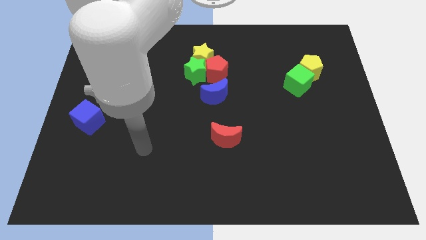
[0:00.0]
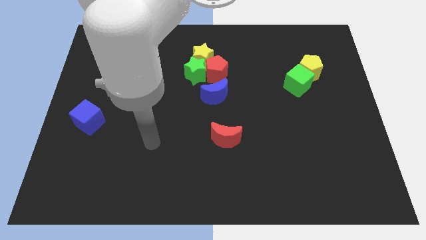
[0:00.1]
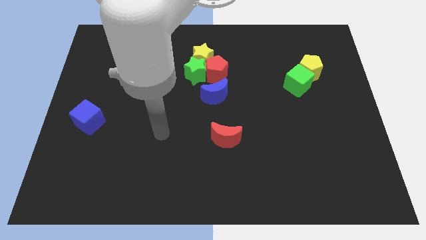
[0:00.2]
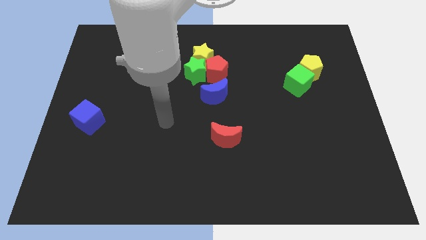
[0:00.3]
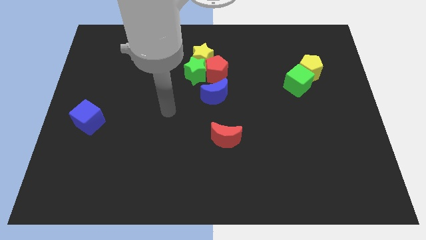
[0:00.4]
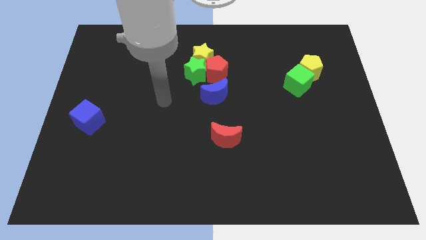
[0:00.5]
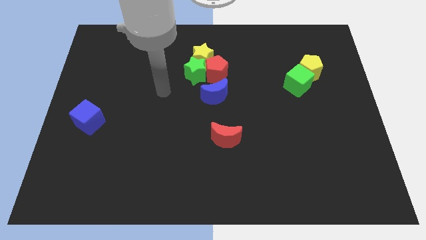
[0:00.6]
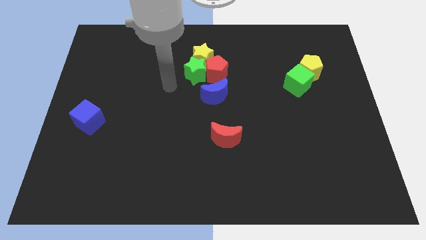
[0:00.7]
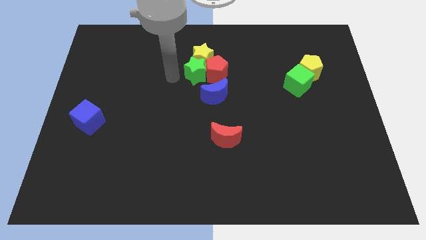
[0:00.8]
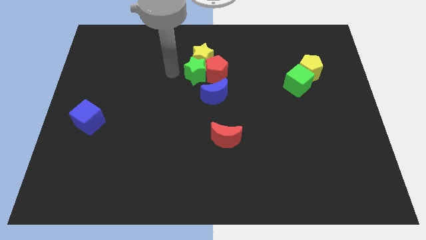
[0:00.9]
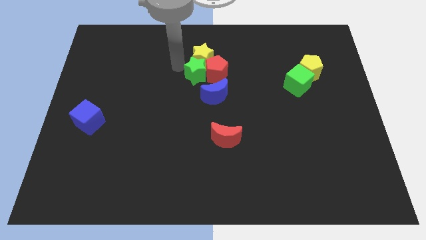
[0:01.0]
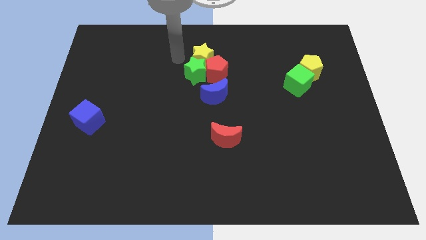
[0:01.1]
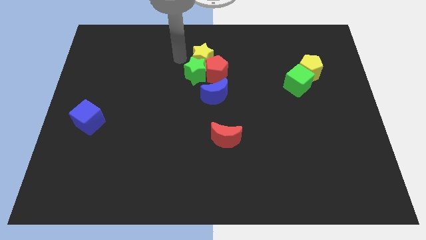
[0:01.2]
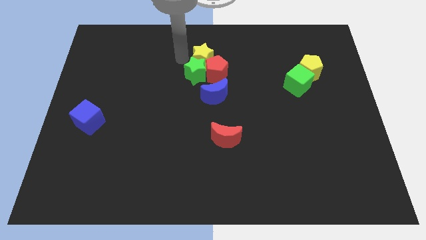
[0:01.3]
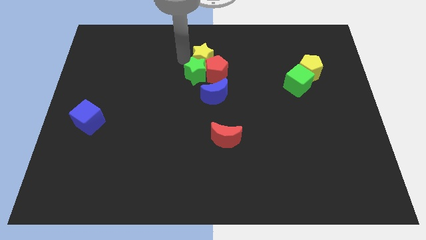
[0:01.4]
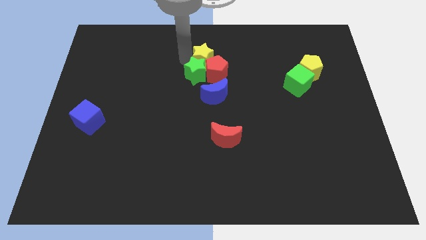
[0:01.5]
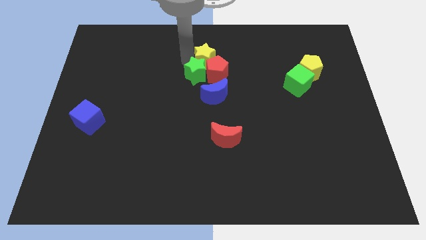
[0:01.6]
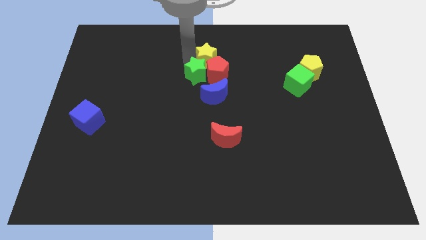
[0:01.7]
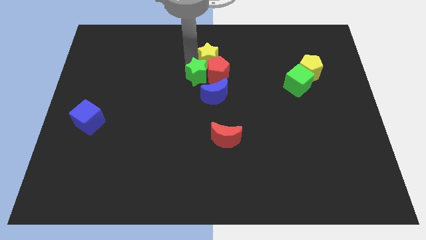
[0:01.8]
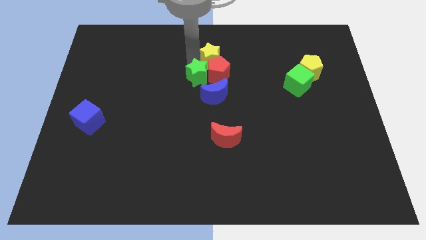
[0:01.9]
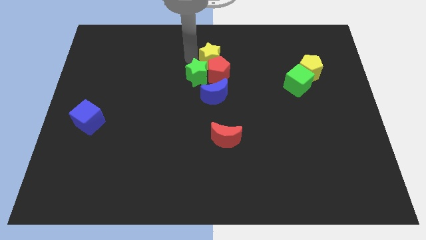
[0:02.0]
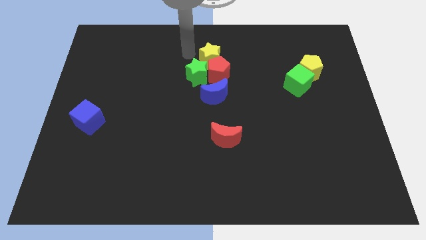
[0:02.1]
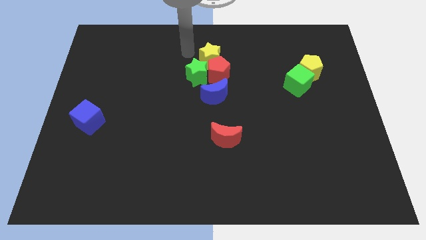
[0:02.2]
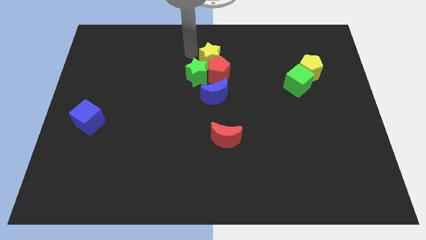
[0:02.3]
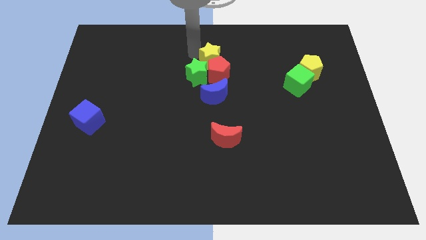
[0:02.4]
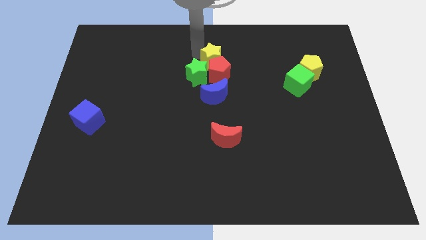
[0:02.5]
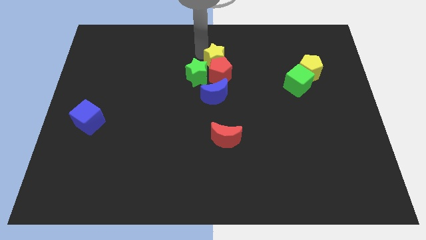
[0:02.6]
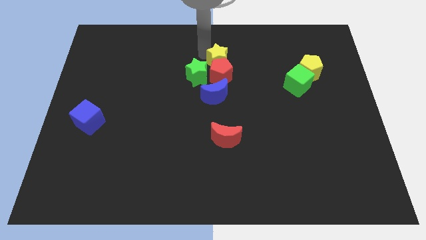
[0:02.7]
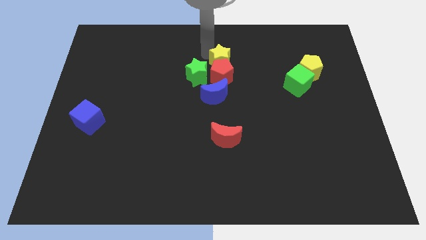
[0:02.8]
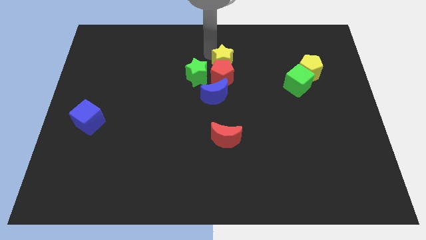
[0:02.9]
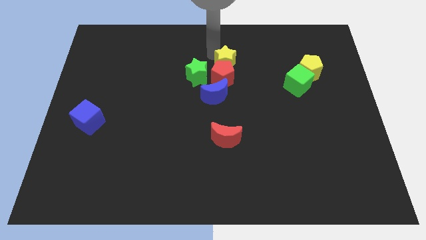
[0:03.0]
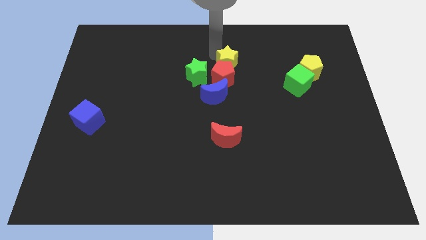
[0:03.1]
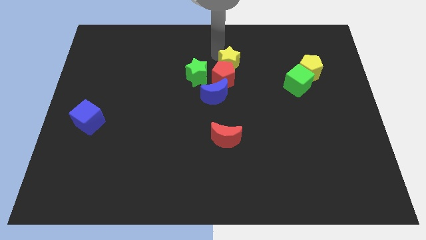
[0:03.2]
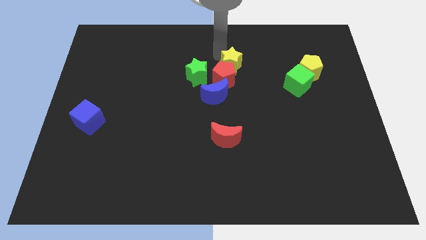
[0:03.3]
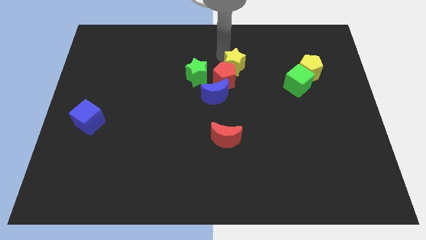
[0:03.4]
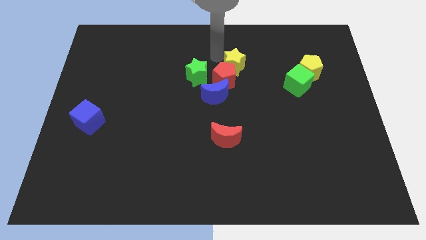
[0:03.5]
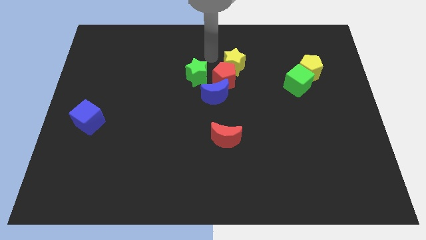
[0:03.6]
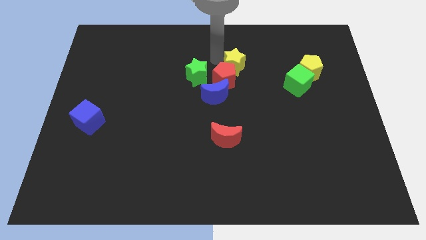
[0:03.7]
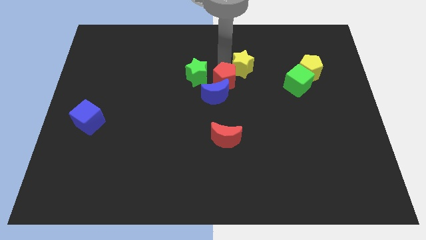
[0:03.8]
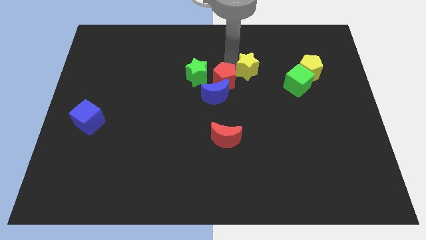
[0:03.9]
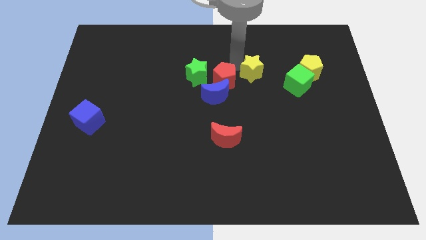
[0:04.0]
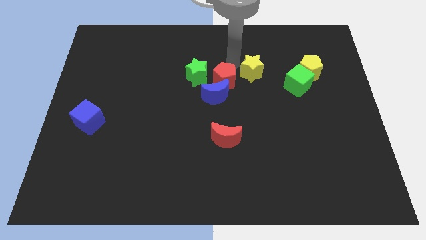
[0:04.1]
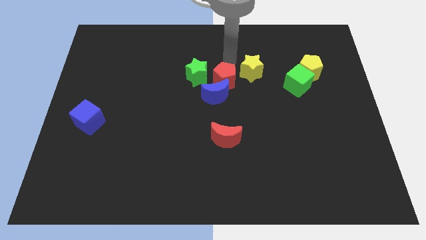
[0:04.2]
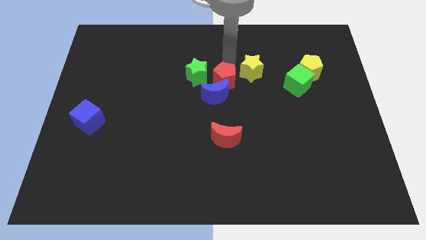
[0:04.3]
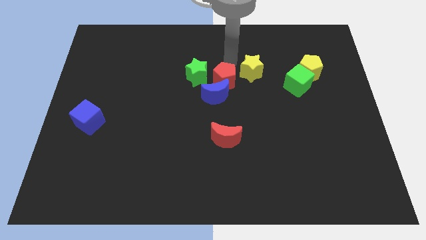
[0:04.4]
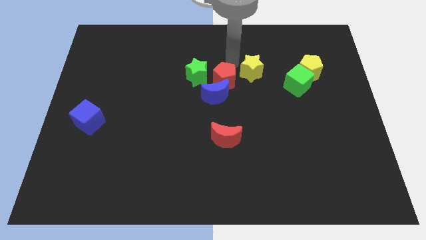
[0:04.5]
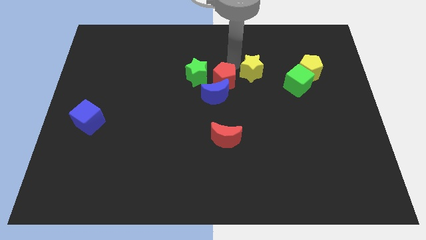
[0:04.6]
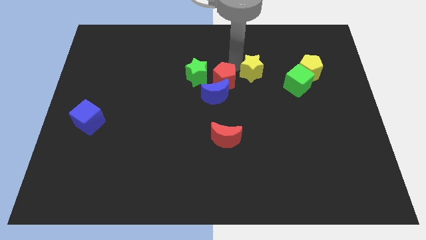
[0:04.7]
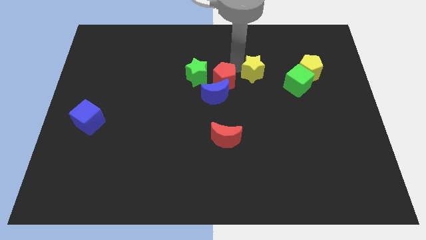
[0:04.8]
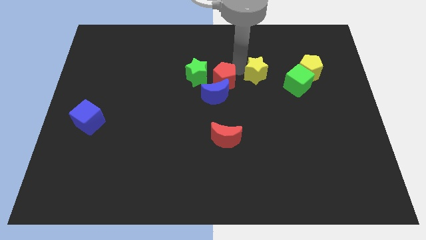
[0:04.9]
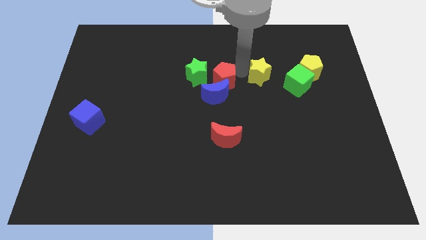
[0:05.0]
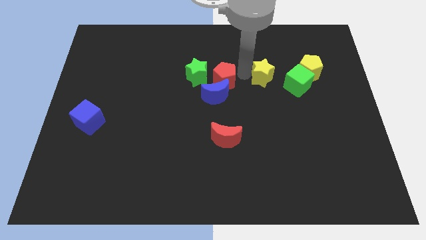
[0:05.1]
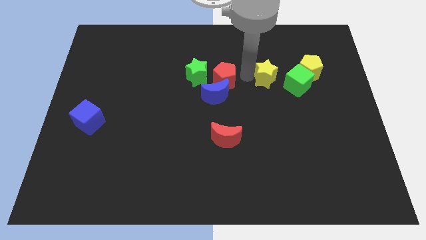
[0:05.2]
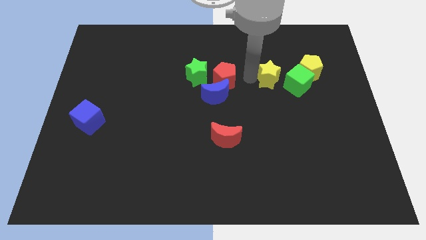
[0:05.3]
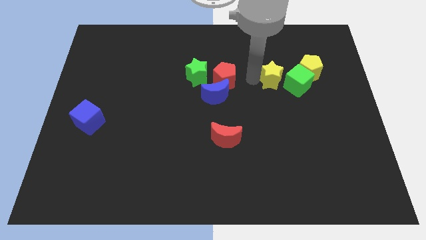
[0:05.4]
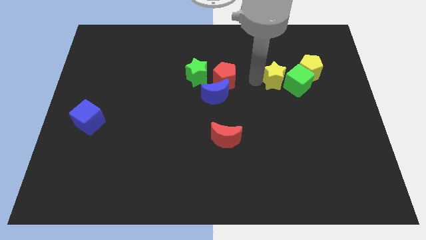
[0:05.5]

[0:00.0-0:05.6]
put the yellow star next to the green cube

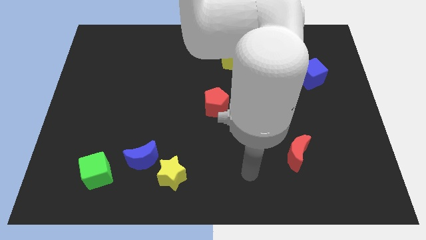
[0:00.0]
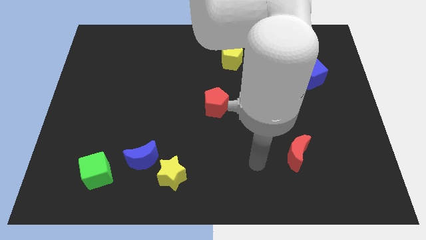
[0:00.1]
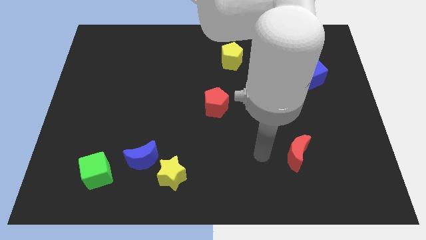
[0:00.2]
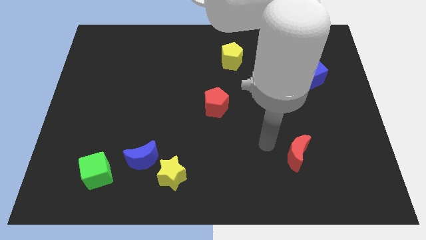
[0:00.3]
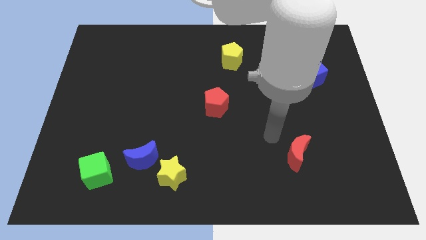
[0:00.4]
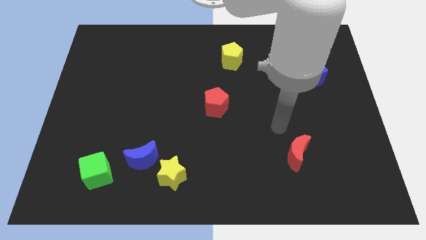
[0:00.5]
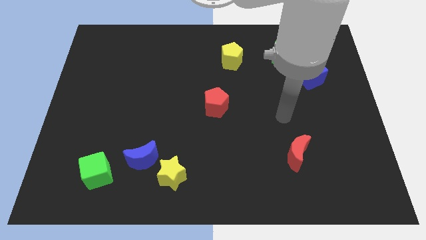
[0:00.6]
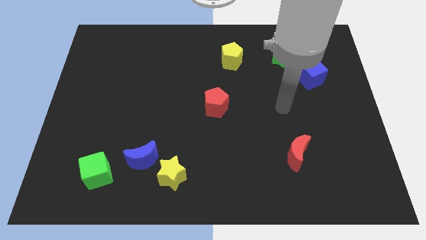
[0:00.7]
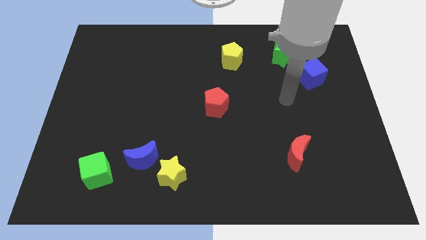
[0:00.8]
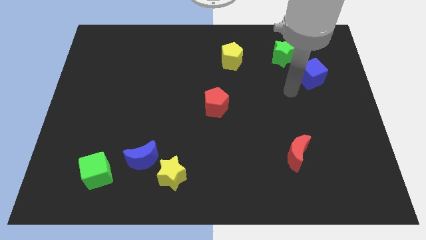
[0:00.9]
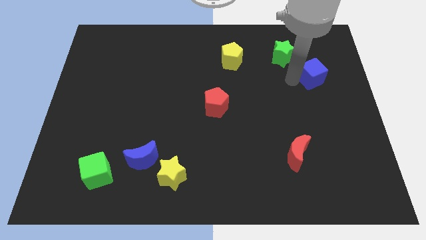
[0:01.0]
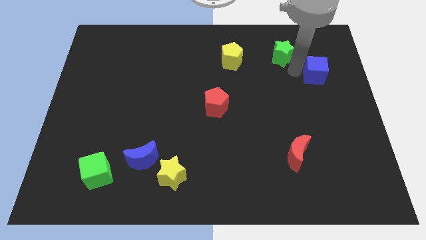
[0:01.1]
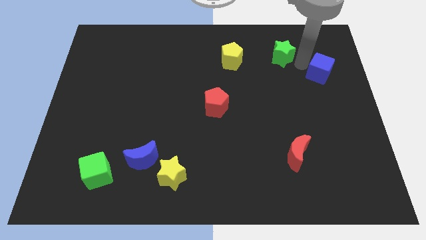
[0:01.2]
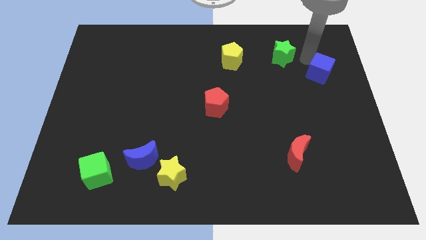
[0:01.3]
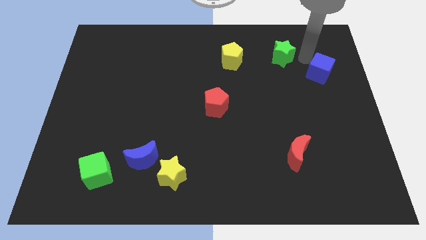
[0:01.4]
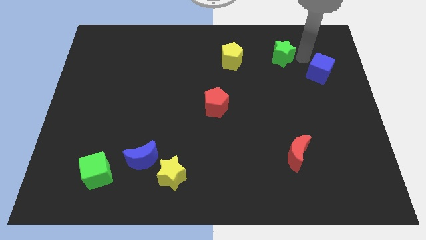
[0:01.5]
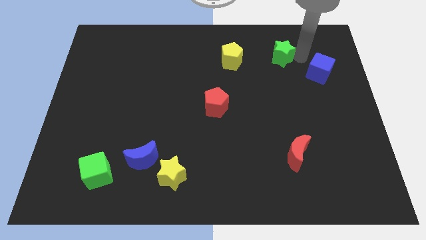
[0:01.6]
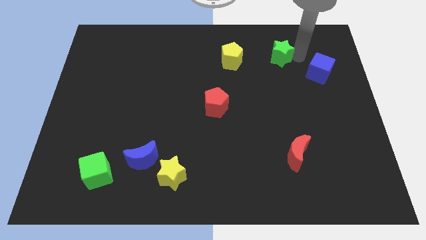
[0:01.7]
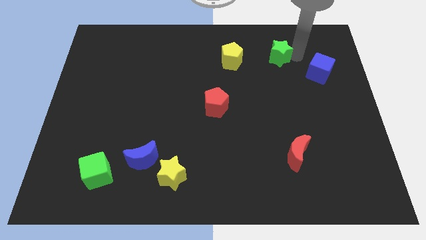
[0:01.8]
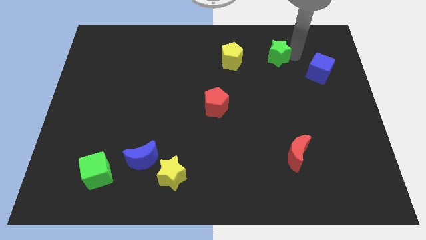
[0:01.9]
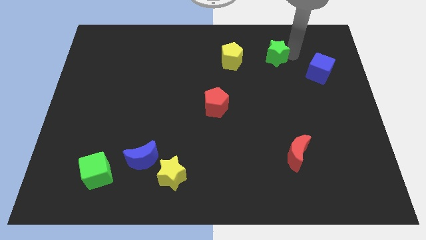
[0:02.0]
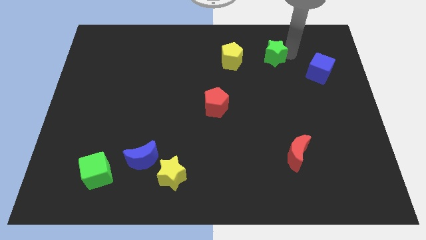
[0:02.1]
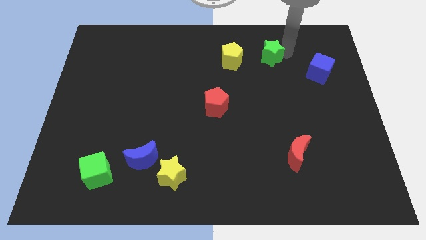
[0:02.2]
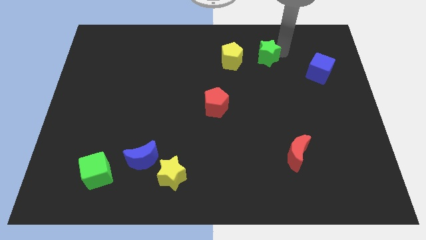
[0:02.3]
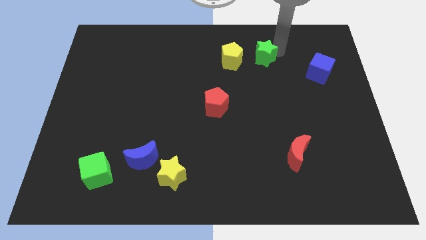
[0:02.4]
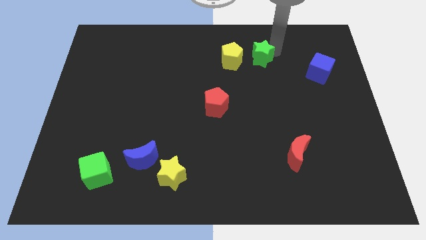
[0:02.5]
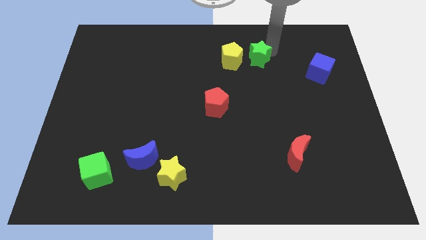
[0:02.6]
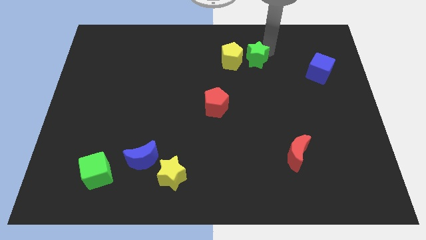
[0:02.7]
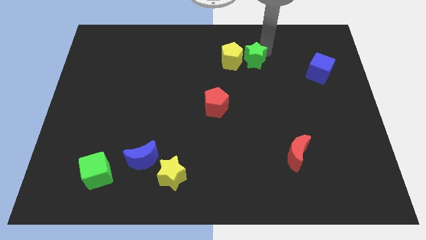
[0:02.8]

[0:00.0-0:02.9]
slide the green star towards the yellow pentagon

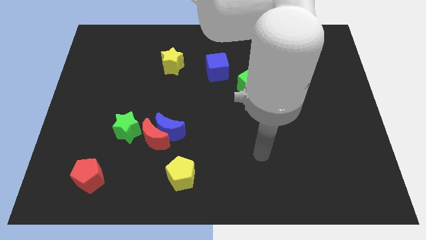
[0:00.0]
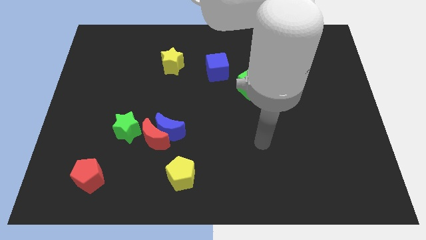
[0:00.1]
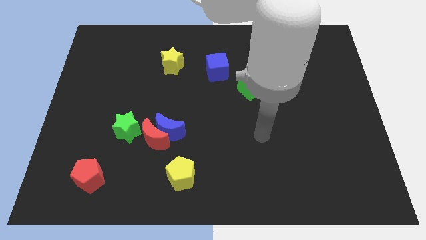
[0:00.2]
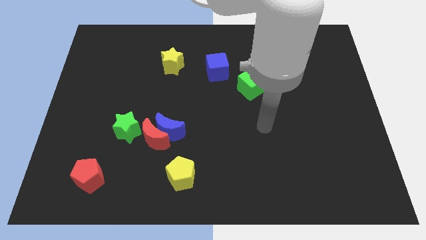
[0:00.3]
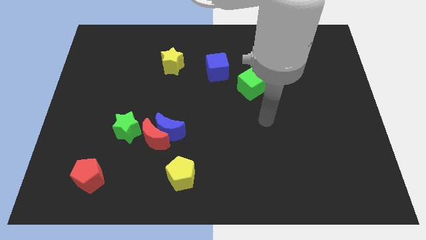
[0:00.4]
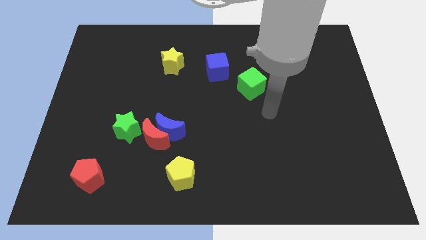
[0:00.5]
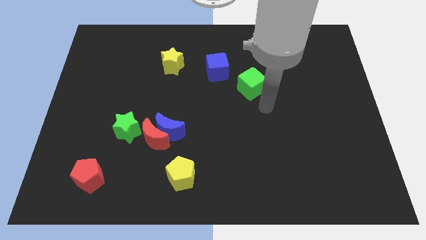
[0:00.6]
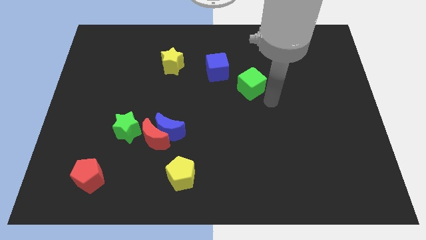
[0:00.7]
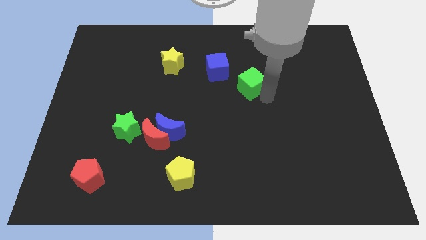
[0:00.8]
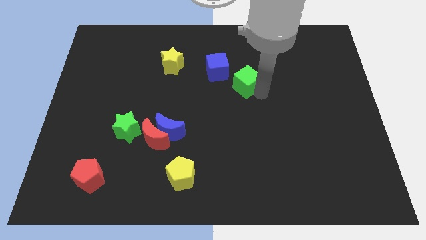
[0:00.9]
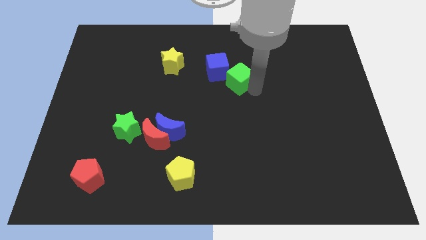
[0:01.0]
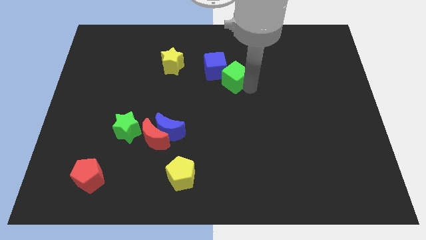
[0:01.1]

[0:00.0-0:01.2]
slide the green cube next to the blue cube
